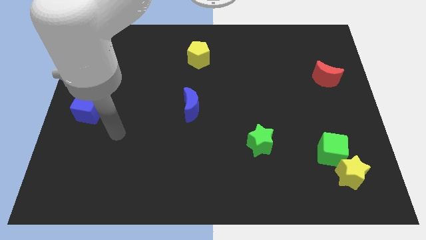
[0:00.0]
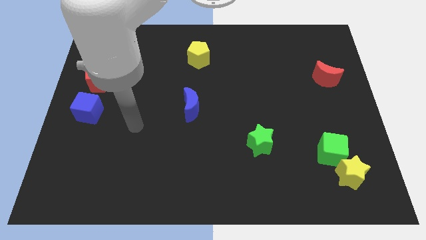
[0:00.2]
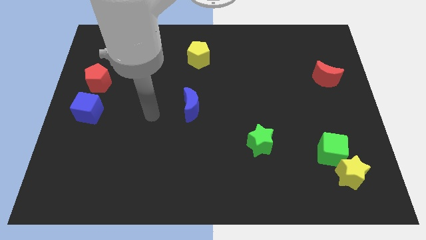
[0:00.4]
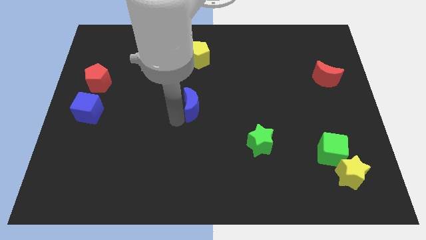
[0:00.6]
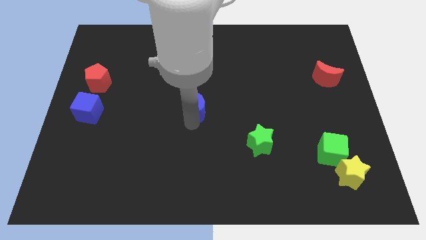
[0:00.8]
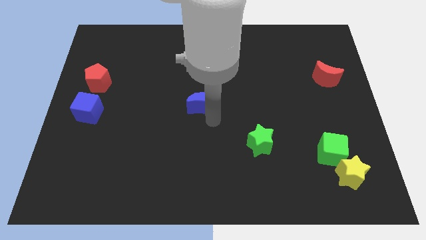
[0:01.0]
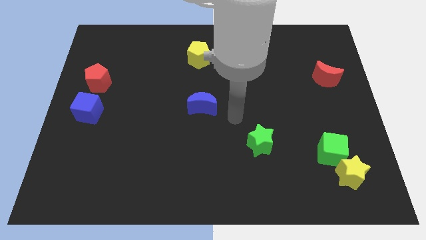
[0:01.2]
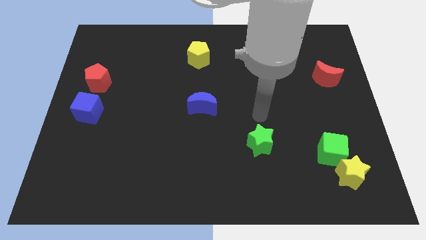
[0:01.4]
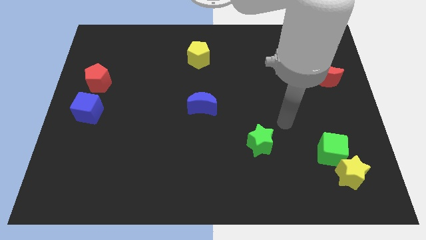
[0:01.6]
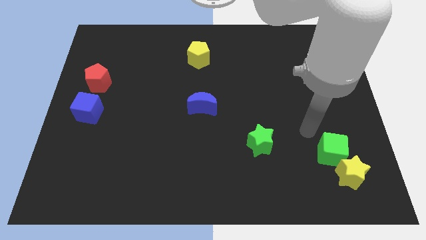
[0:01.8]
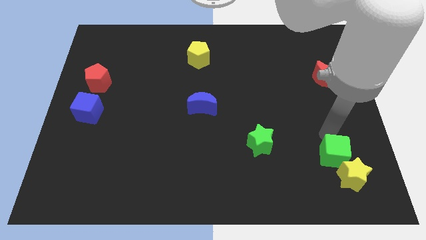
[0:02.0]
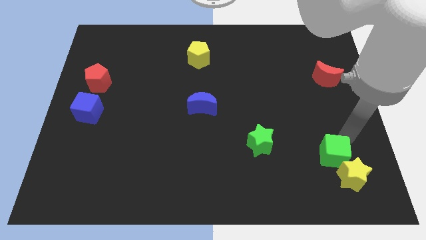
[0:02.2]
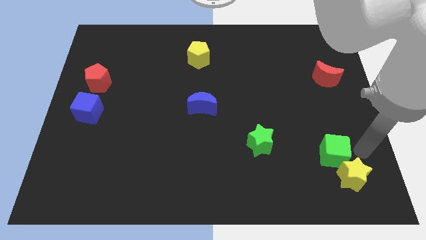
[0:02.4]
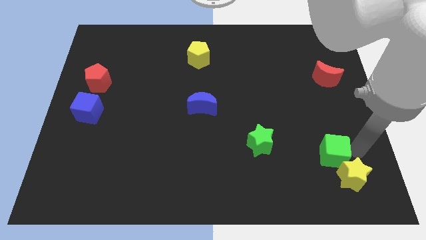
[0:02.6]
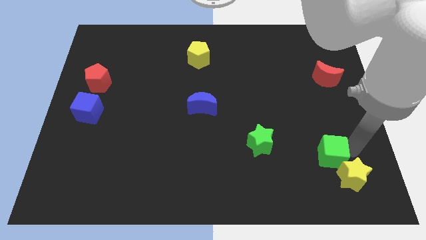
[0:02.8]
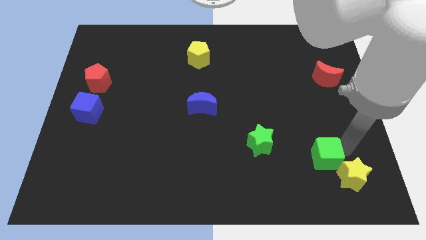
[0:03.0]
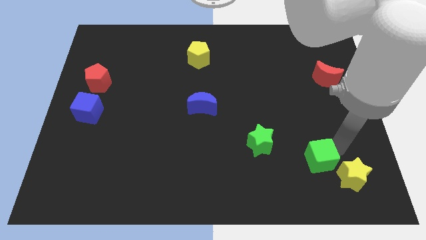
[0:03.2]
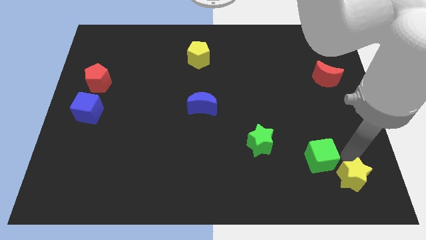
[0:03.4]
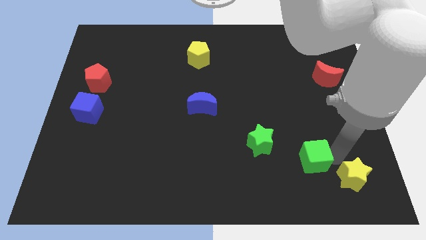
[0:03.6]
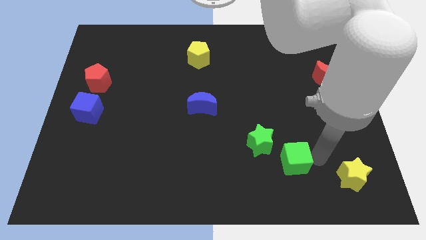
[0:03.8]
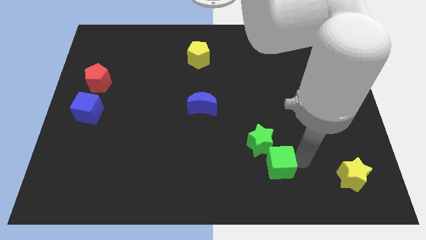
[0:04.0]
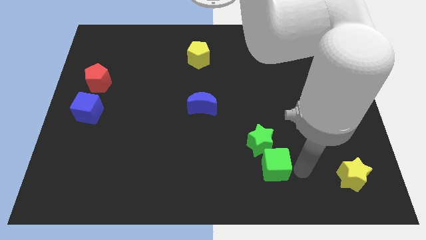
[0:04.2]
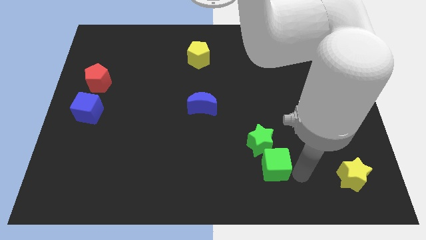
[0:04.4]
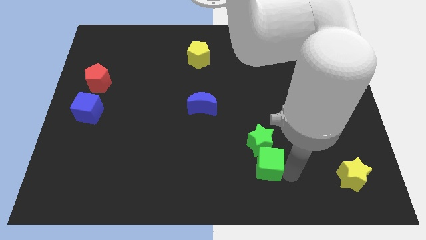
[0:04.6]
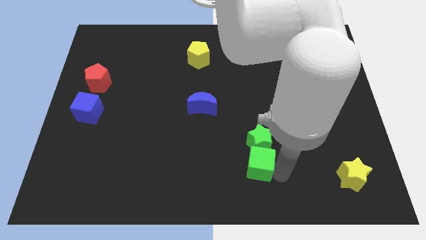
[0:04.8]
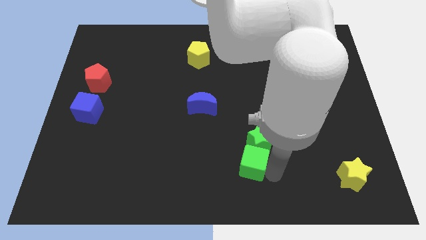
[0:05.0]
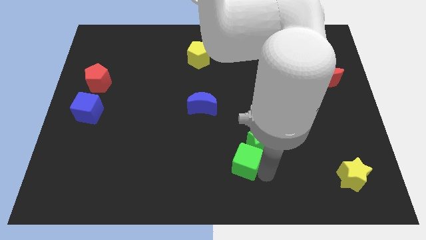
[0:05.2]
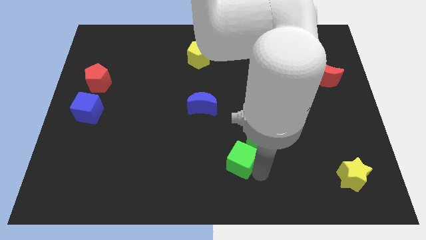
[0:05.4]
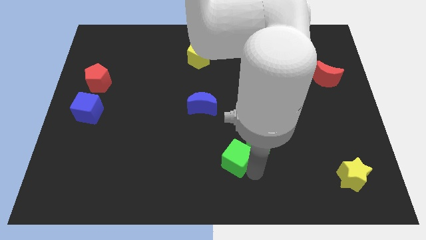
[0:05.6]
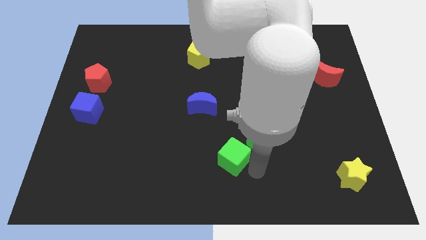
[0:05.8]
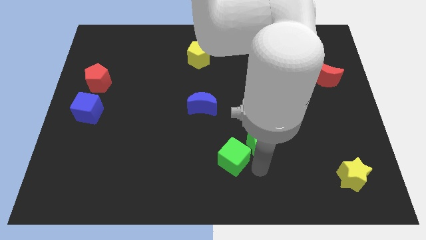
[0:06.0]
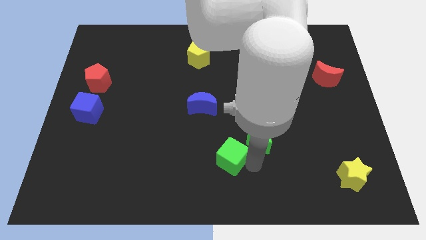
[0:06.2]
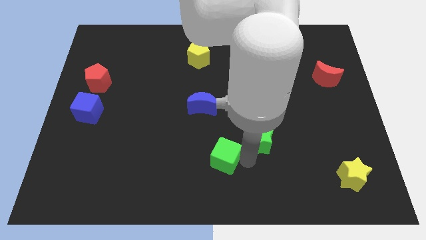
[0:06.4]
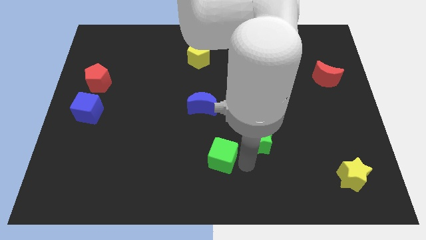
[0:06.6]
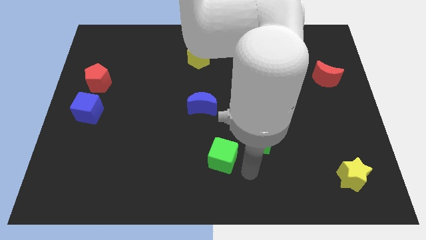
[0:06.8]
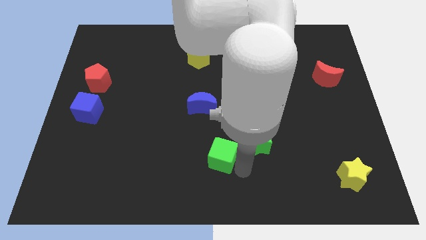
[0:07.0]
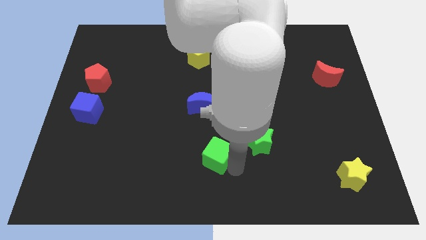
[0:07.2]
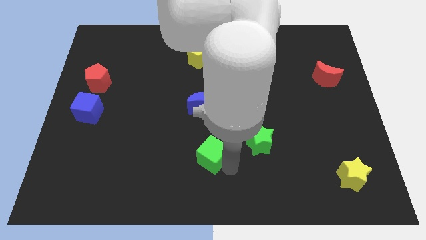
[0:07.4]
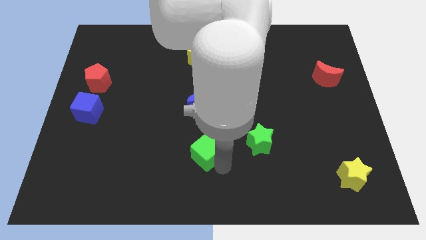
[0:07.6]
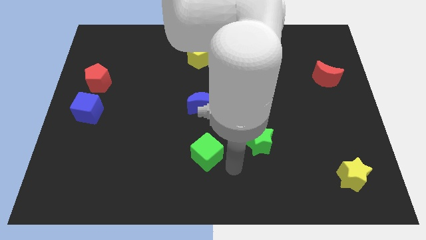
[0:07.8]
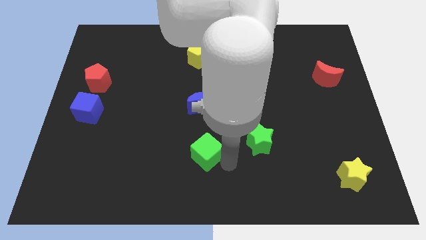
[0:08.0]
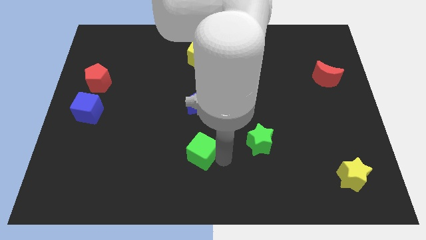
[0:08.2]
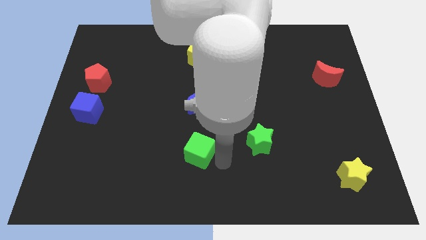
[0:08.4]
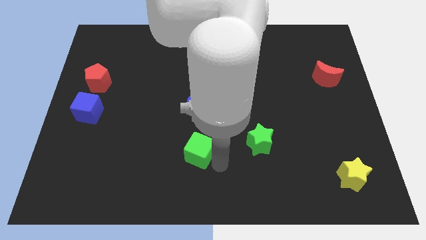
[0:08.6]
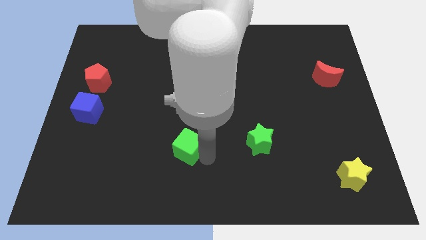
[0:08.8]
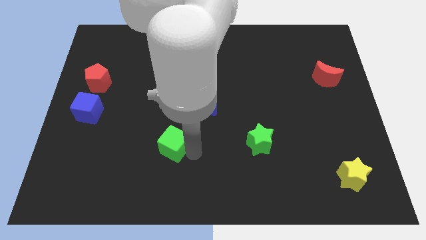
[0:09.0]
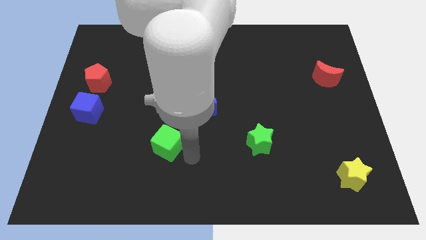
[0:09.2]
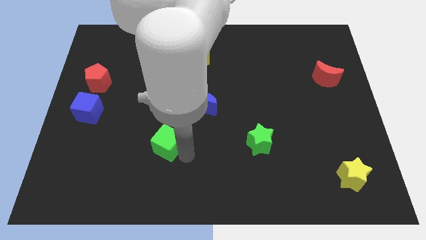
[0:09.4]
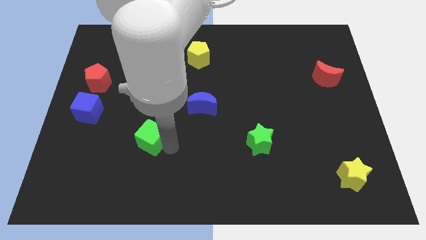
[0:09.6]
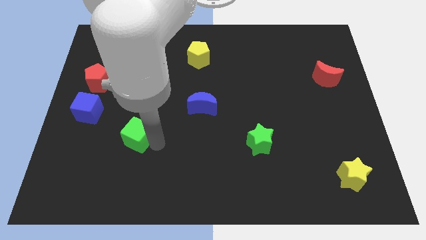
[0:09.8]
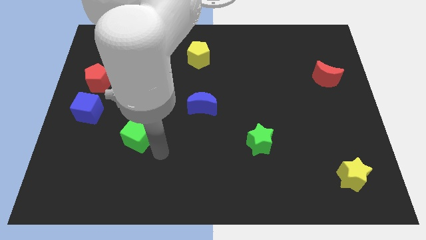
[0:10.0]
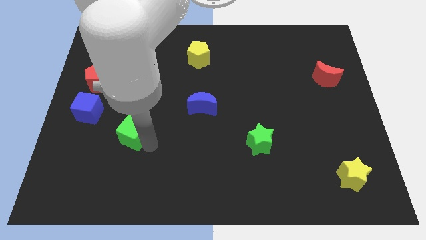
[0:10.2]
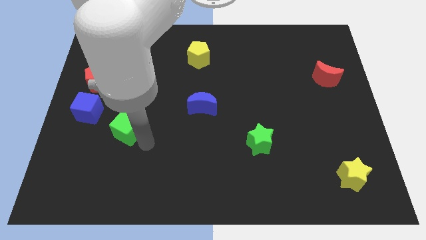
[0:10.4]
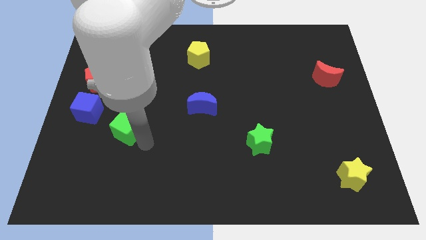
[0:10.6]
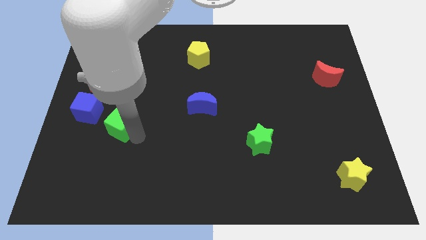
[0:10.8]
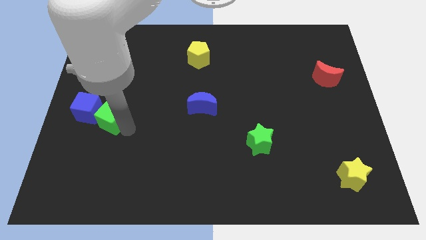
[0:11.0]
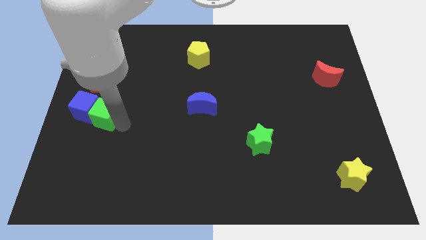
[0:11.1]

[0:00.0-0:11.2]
put the green cube to the blue cube

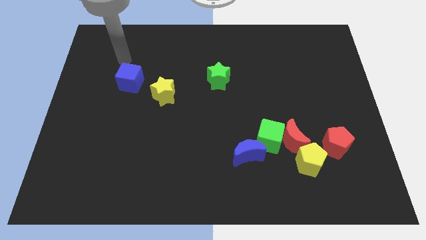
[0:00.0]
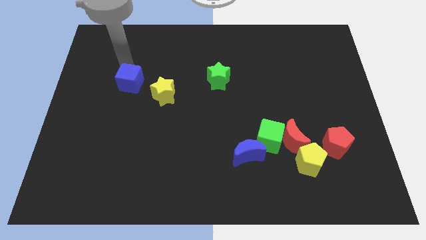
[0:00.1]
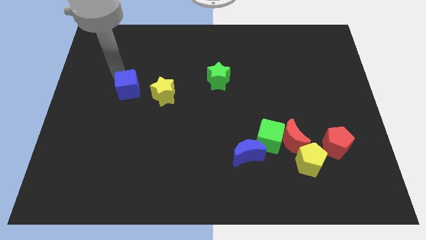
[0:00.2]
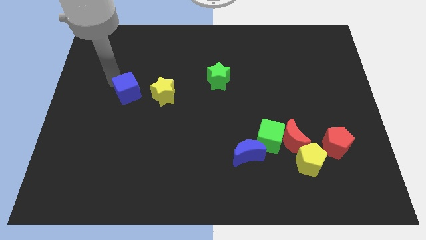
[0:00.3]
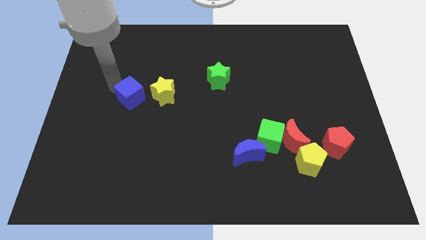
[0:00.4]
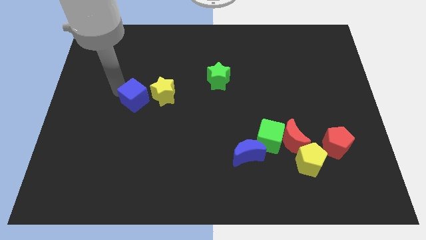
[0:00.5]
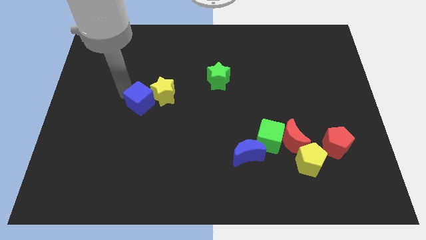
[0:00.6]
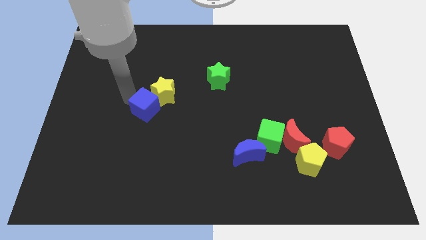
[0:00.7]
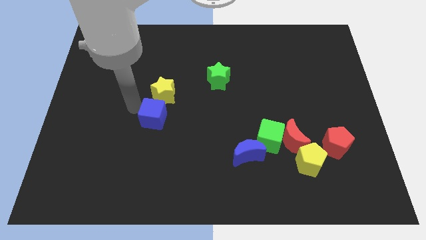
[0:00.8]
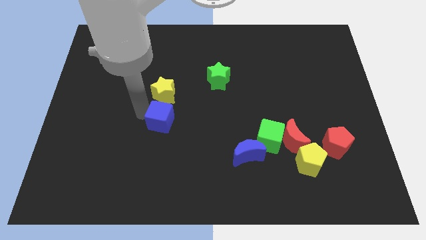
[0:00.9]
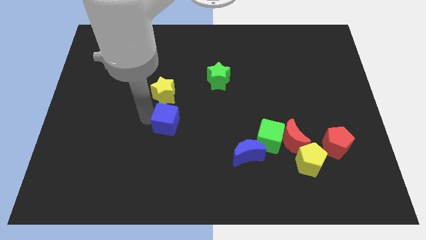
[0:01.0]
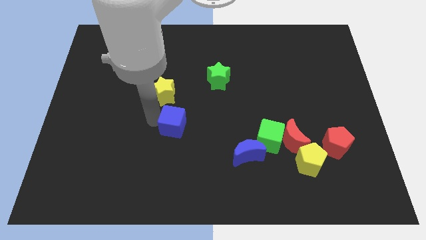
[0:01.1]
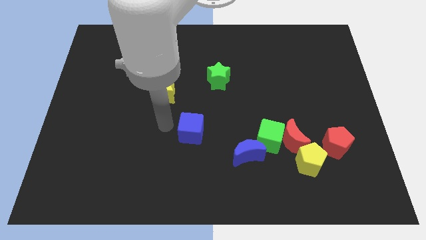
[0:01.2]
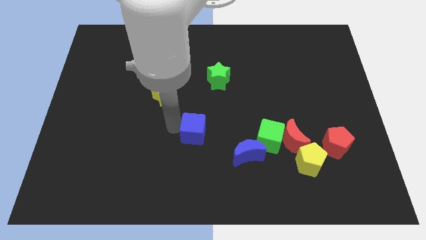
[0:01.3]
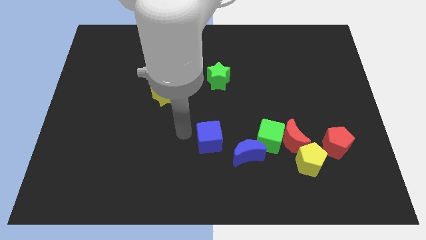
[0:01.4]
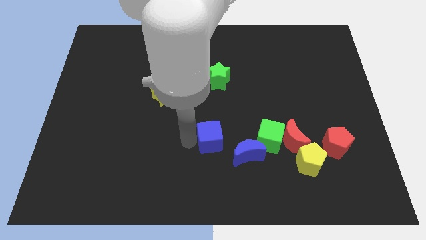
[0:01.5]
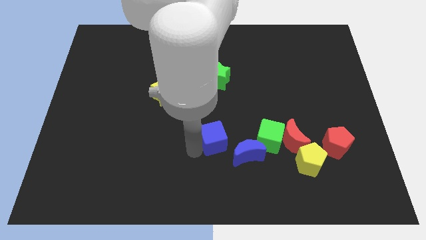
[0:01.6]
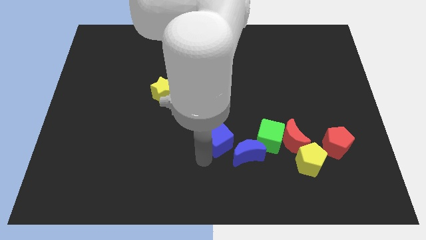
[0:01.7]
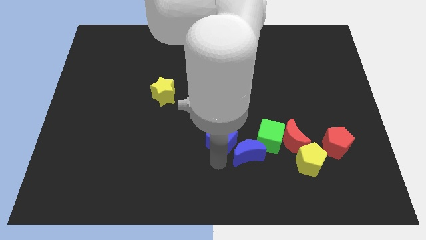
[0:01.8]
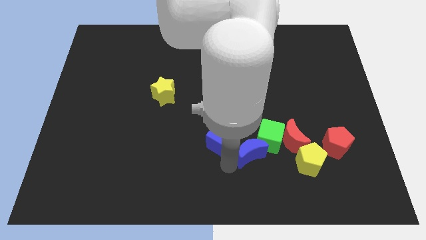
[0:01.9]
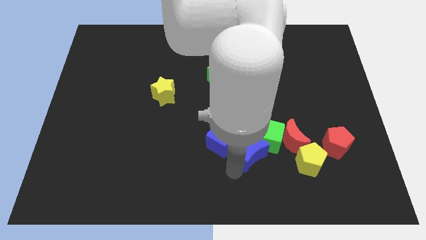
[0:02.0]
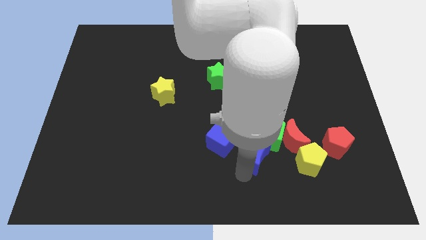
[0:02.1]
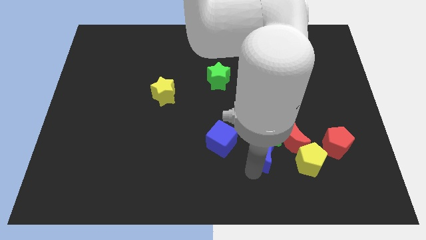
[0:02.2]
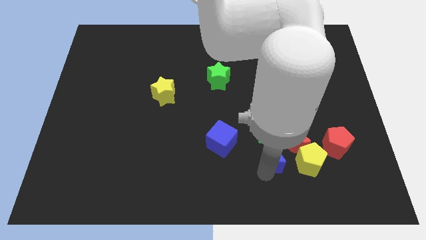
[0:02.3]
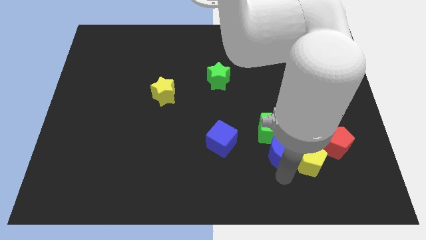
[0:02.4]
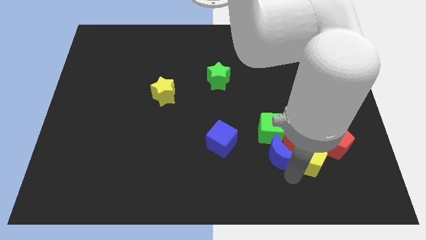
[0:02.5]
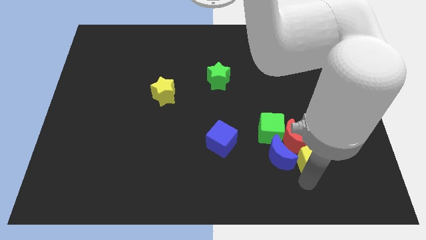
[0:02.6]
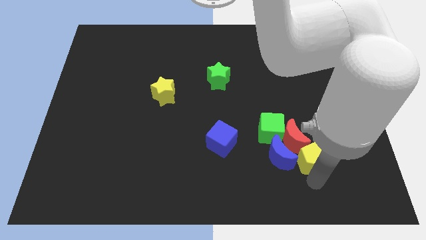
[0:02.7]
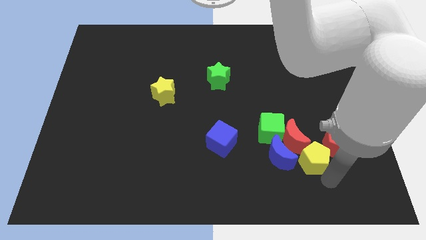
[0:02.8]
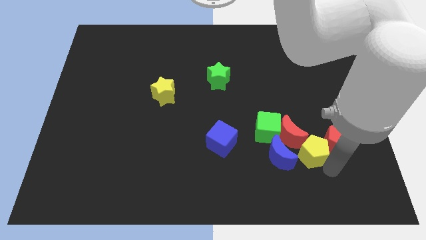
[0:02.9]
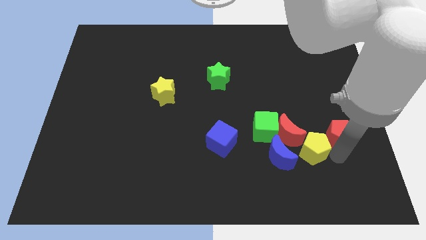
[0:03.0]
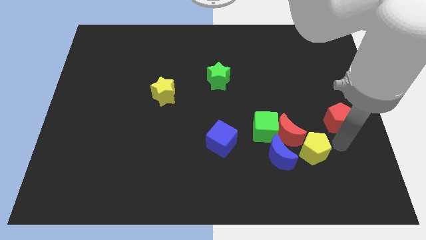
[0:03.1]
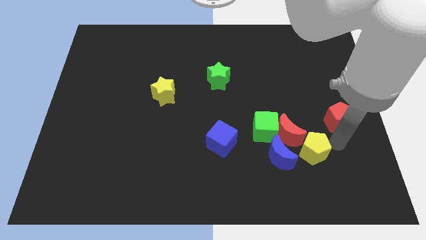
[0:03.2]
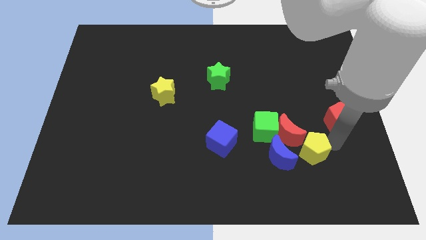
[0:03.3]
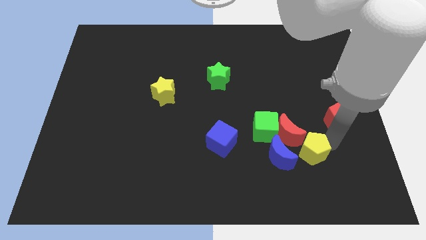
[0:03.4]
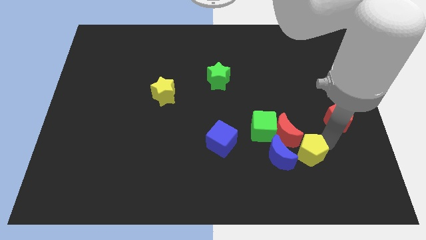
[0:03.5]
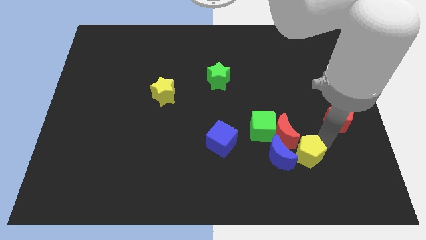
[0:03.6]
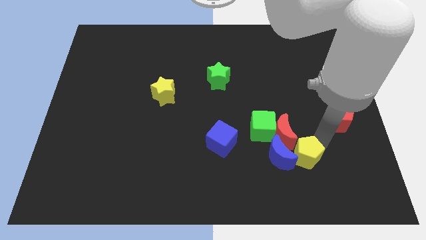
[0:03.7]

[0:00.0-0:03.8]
move the yellow pentagon towards the blue moon
